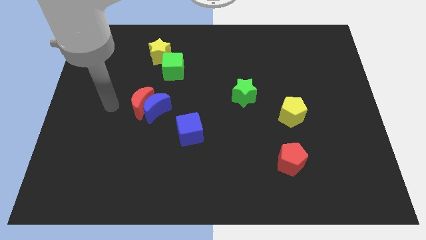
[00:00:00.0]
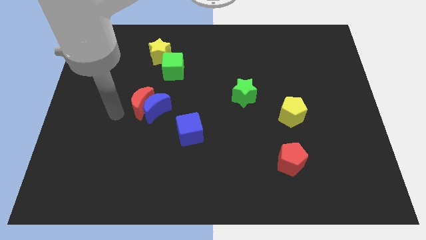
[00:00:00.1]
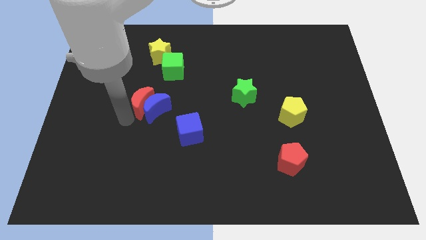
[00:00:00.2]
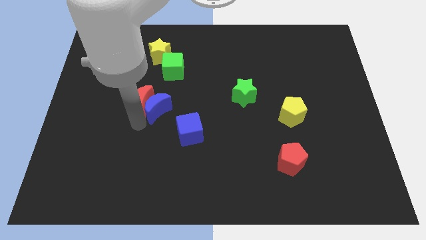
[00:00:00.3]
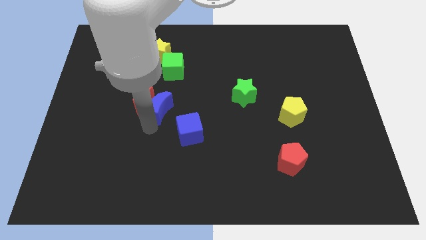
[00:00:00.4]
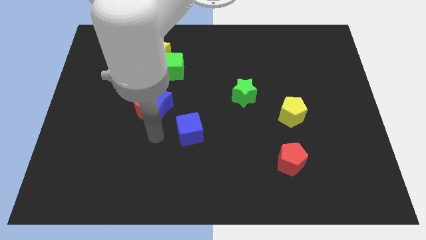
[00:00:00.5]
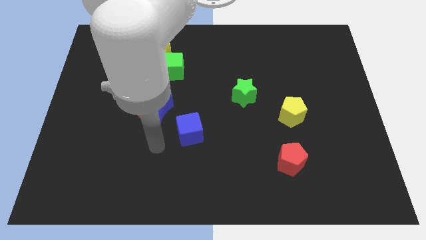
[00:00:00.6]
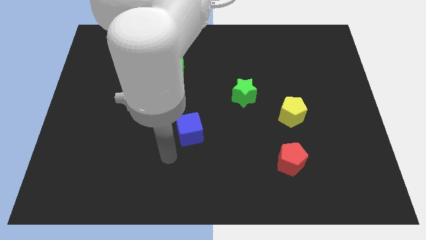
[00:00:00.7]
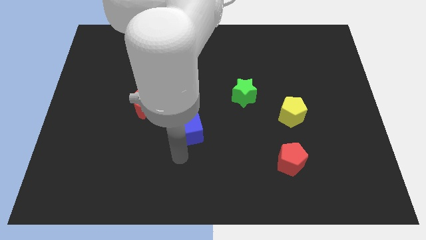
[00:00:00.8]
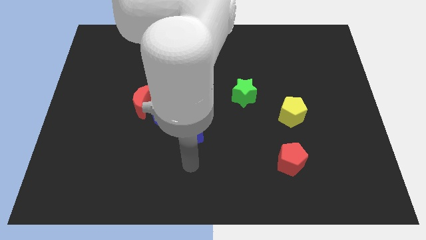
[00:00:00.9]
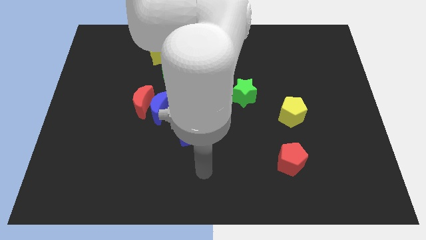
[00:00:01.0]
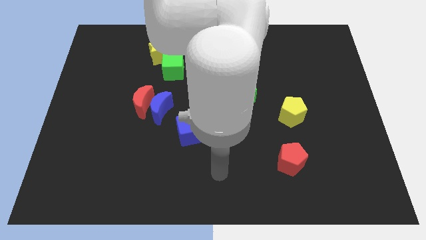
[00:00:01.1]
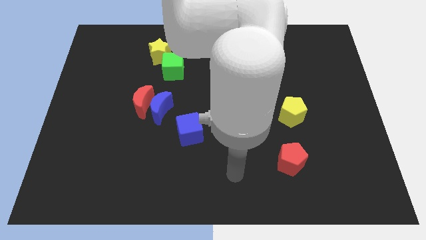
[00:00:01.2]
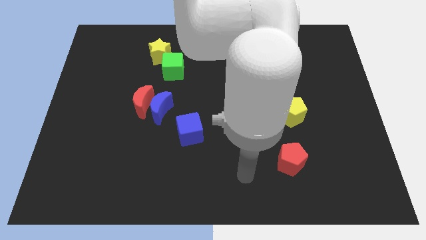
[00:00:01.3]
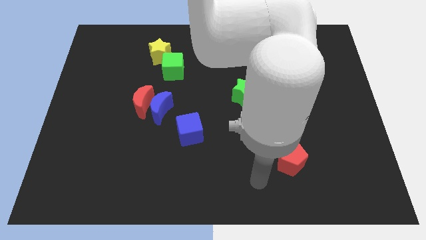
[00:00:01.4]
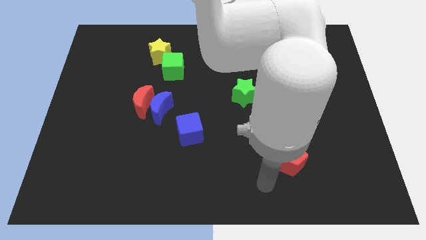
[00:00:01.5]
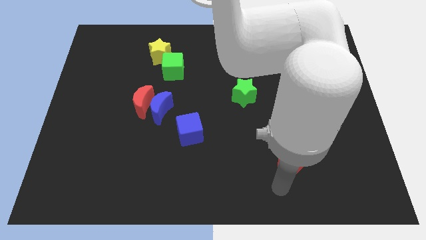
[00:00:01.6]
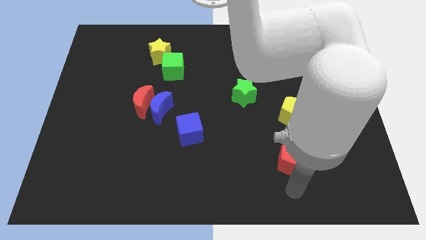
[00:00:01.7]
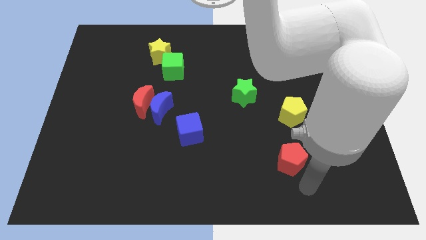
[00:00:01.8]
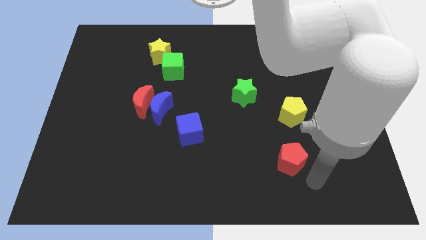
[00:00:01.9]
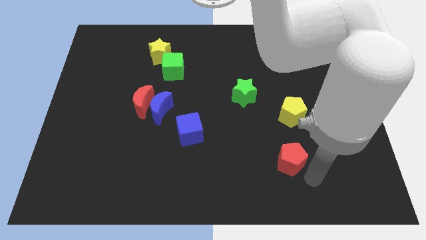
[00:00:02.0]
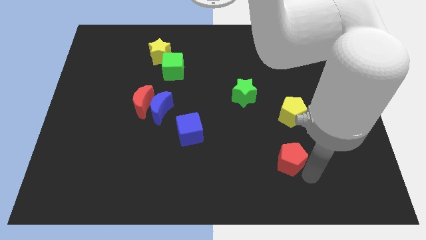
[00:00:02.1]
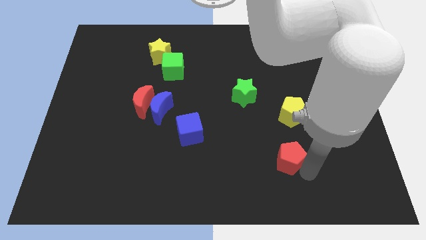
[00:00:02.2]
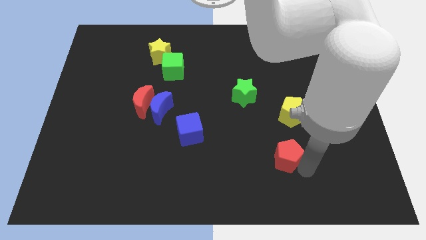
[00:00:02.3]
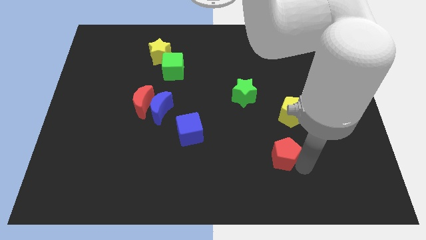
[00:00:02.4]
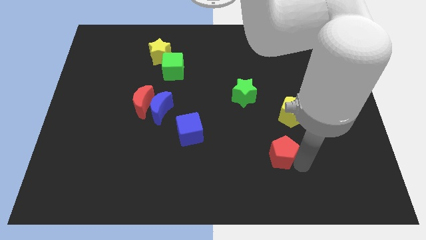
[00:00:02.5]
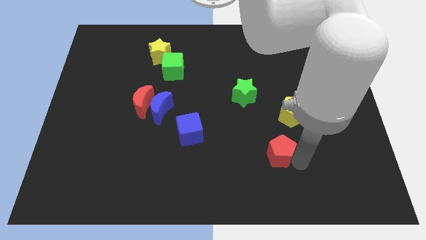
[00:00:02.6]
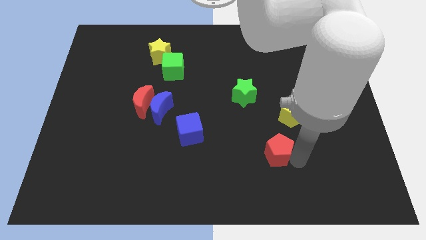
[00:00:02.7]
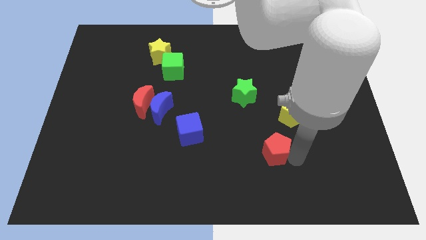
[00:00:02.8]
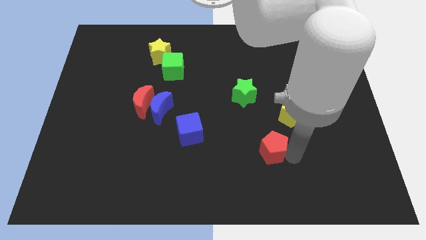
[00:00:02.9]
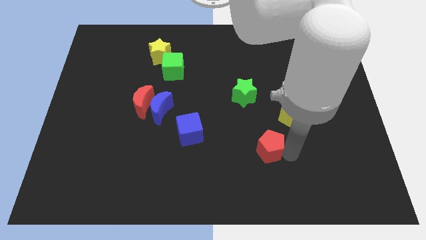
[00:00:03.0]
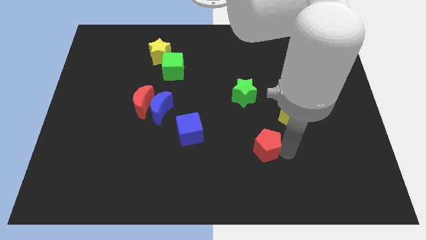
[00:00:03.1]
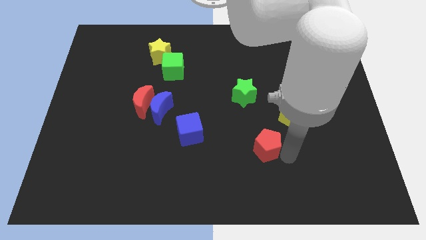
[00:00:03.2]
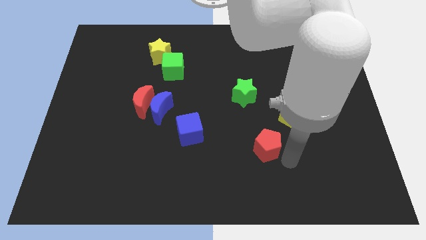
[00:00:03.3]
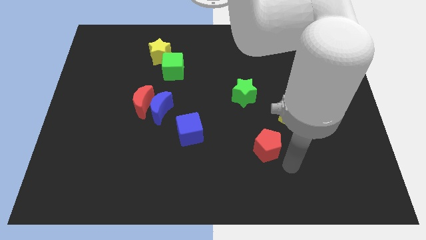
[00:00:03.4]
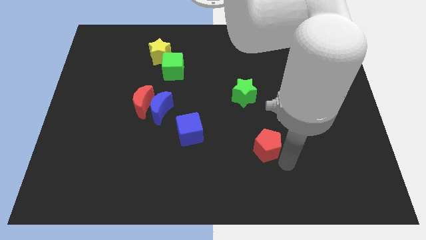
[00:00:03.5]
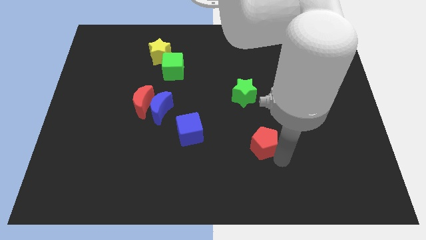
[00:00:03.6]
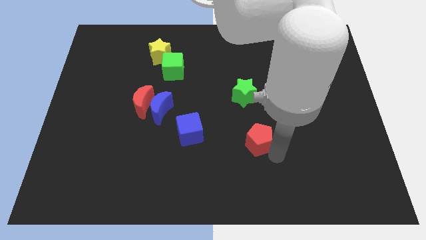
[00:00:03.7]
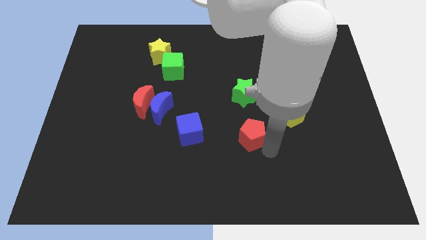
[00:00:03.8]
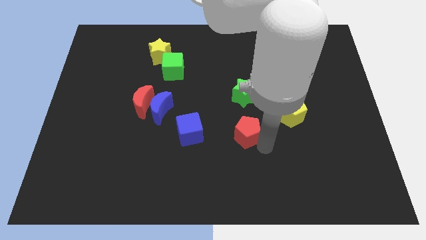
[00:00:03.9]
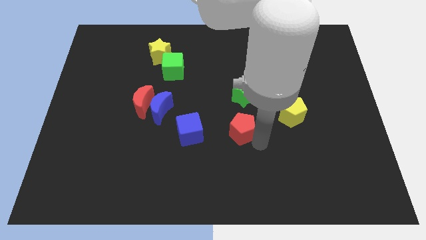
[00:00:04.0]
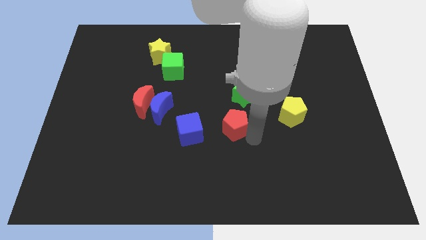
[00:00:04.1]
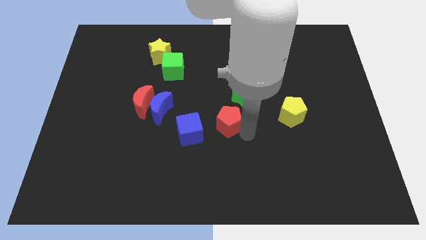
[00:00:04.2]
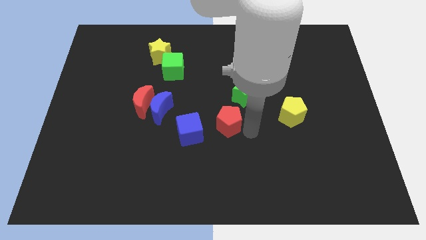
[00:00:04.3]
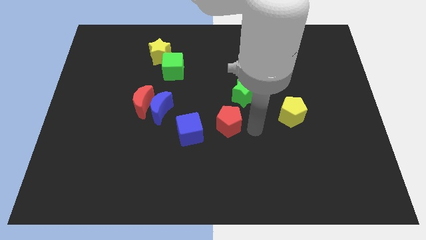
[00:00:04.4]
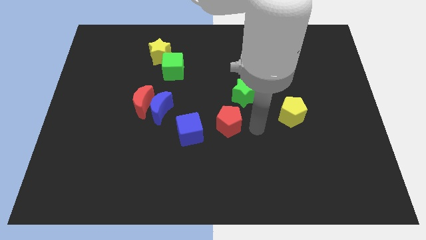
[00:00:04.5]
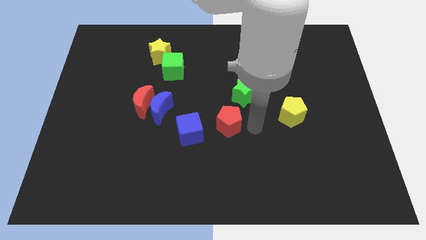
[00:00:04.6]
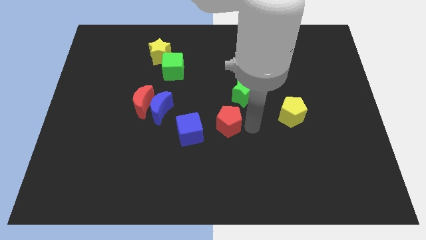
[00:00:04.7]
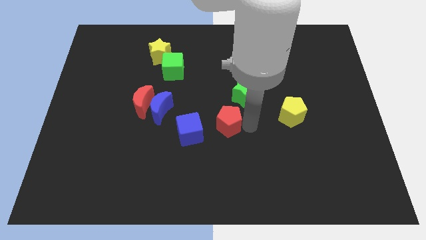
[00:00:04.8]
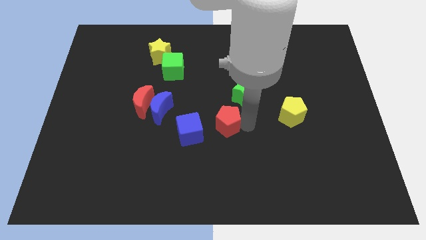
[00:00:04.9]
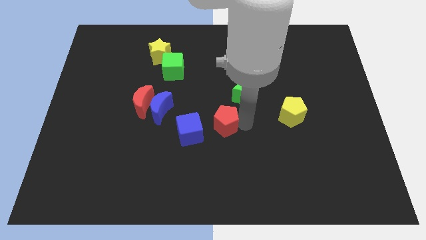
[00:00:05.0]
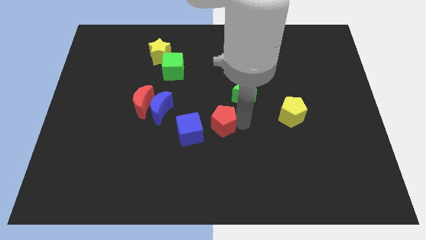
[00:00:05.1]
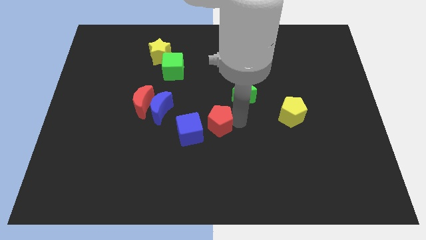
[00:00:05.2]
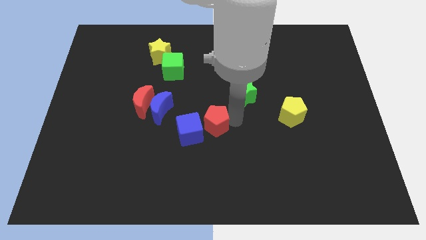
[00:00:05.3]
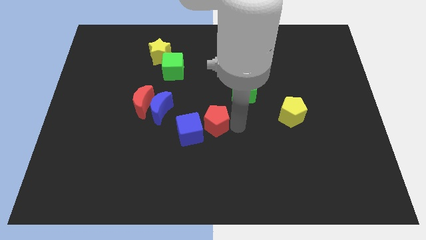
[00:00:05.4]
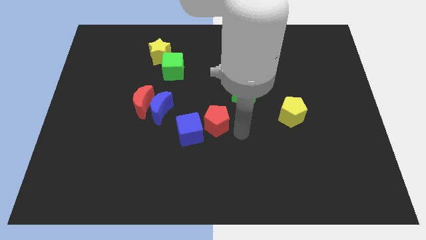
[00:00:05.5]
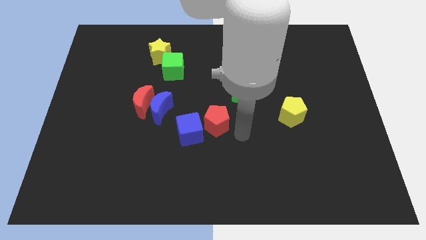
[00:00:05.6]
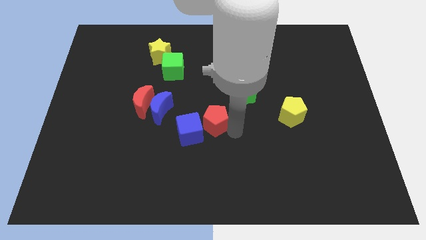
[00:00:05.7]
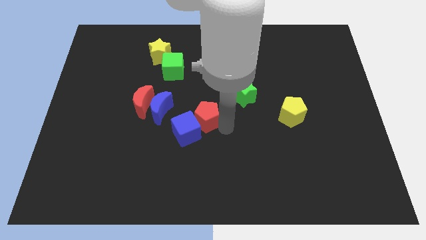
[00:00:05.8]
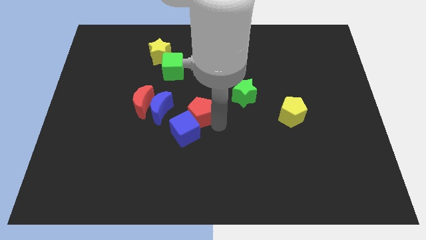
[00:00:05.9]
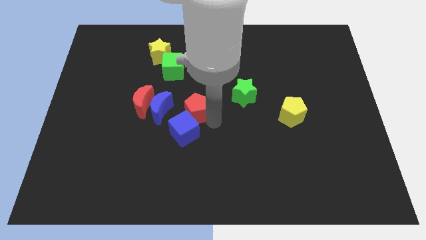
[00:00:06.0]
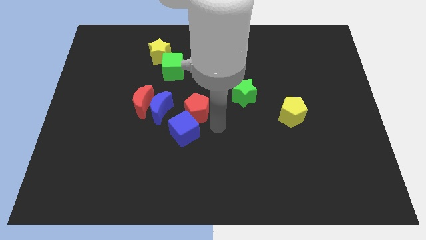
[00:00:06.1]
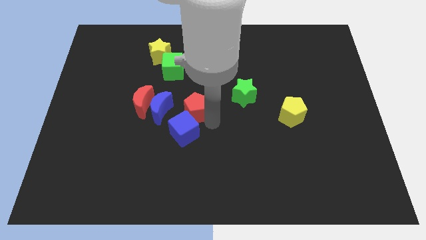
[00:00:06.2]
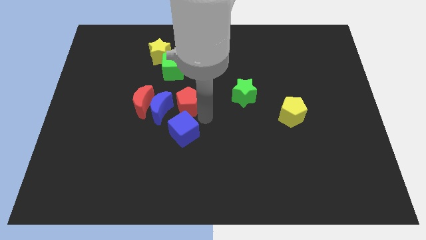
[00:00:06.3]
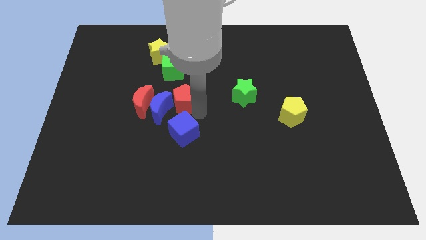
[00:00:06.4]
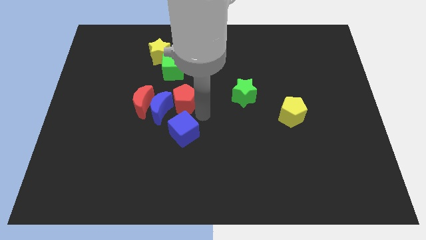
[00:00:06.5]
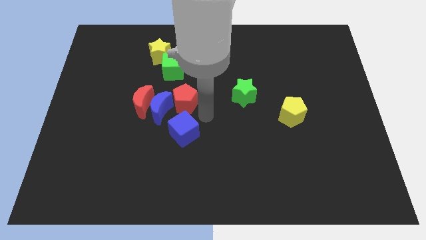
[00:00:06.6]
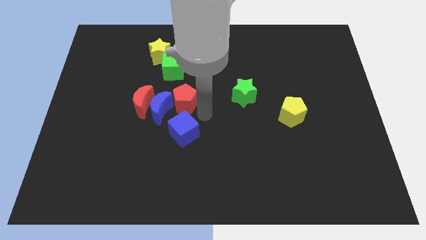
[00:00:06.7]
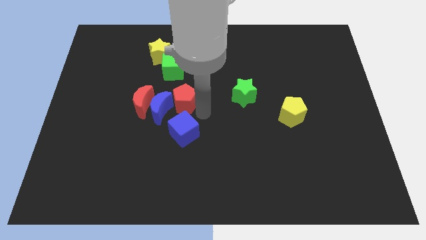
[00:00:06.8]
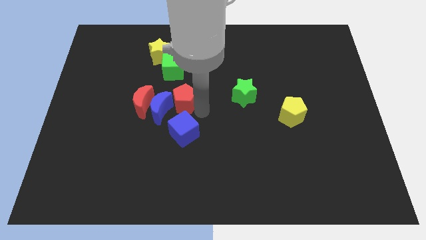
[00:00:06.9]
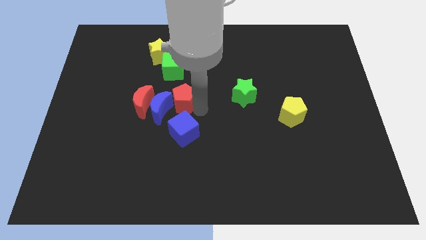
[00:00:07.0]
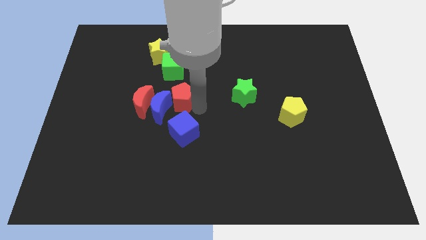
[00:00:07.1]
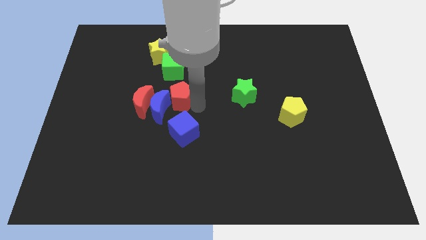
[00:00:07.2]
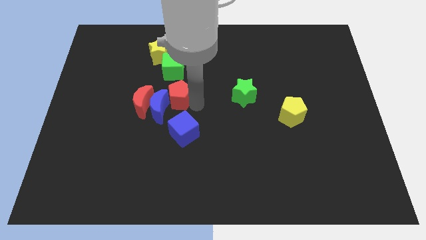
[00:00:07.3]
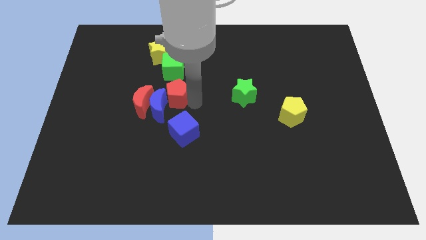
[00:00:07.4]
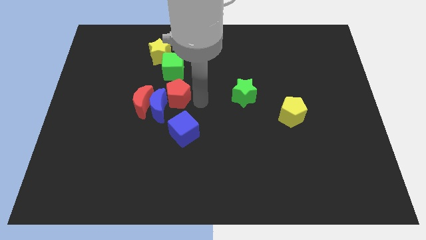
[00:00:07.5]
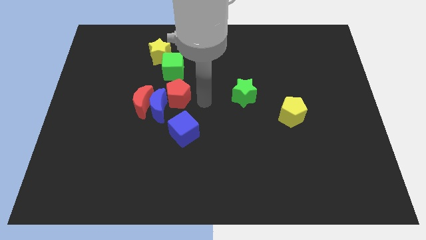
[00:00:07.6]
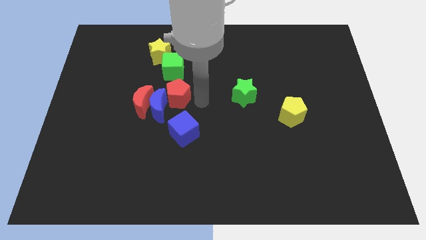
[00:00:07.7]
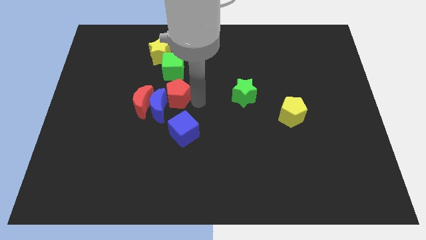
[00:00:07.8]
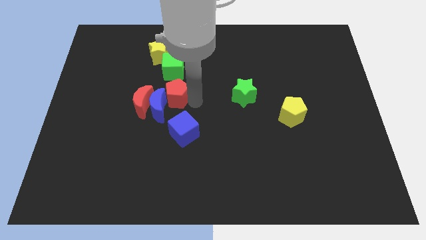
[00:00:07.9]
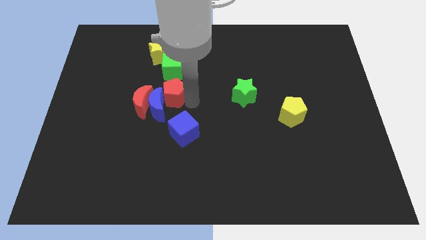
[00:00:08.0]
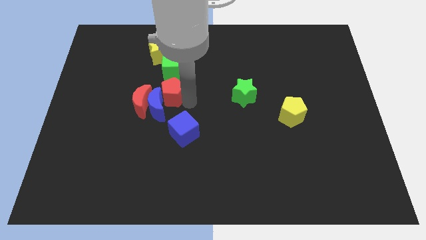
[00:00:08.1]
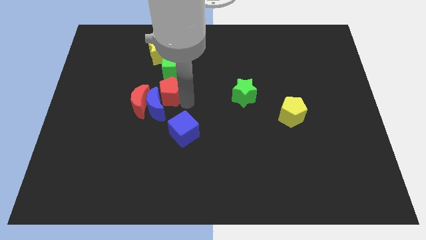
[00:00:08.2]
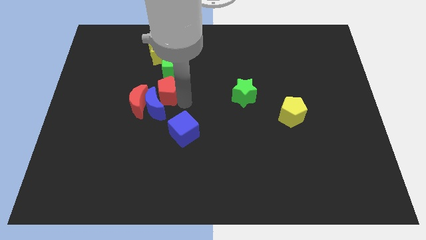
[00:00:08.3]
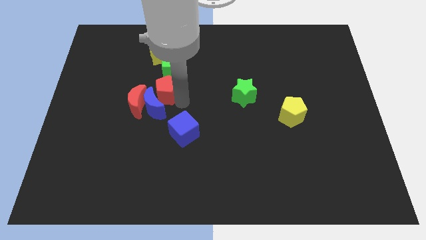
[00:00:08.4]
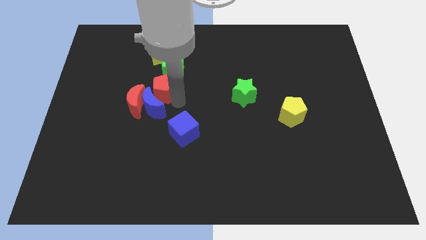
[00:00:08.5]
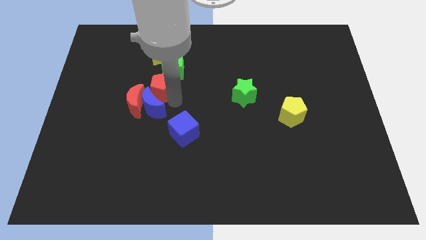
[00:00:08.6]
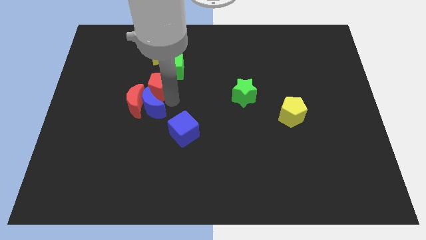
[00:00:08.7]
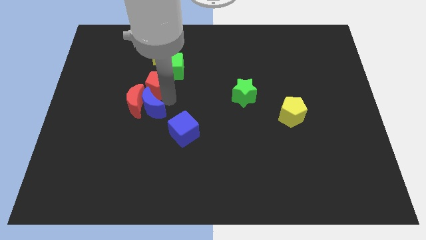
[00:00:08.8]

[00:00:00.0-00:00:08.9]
move the red pentagon to the top left side of the blue moon
